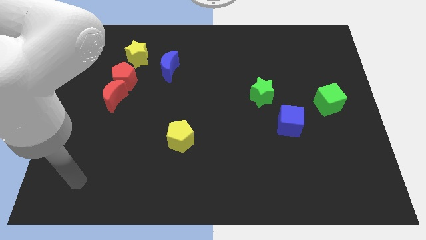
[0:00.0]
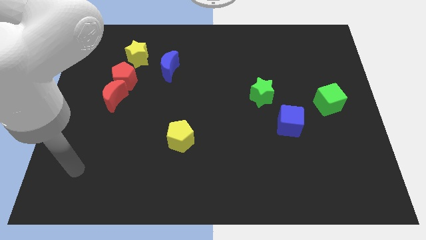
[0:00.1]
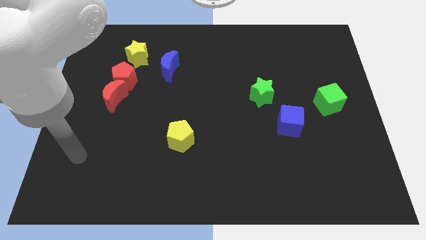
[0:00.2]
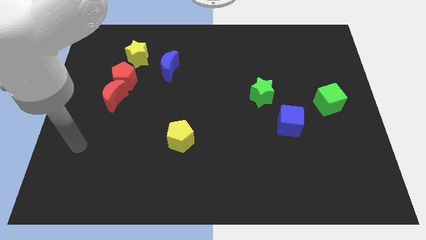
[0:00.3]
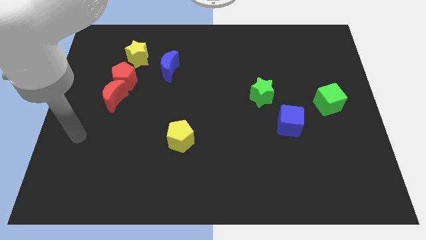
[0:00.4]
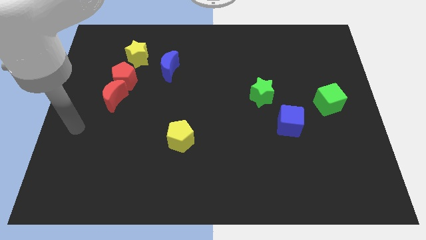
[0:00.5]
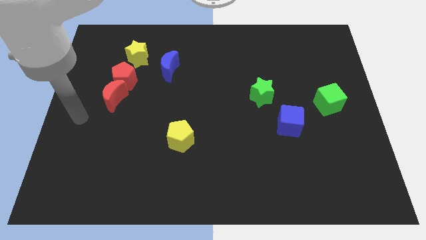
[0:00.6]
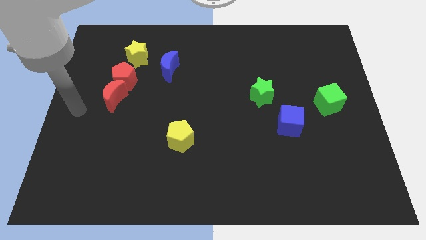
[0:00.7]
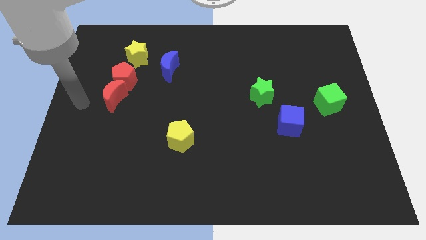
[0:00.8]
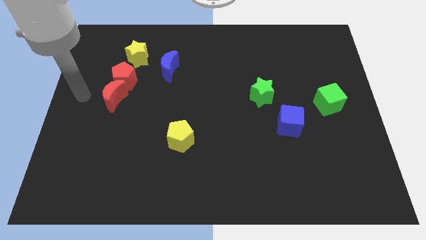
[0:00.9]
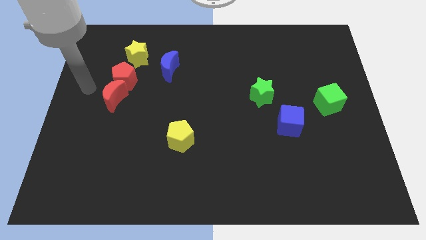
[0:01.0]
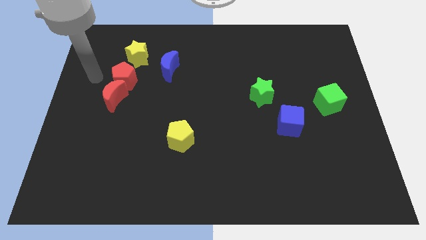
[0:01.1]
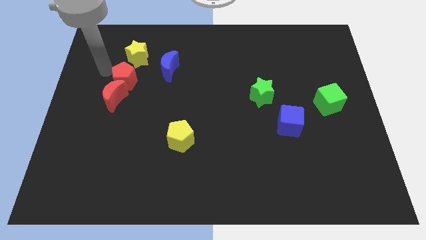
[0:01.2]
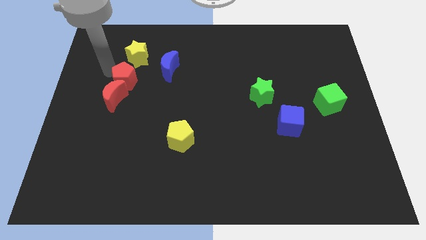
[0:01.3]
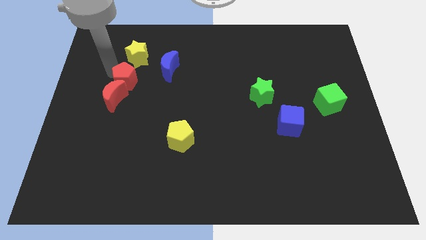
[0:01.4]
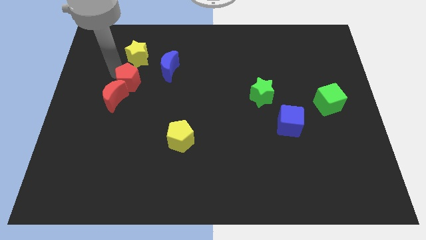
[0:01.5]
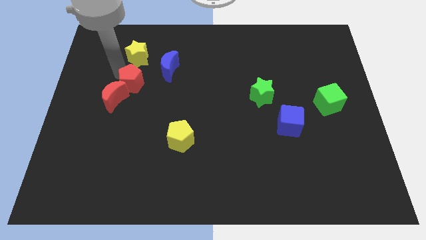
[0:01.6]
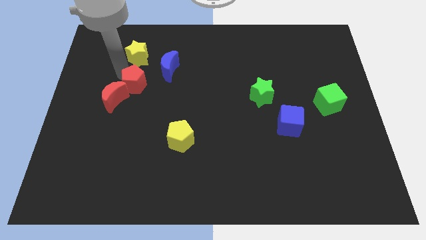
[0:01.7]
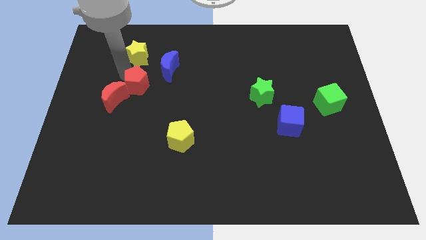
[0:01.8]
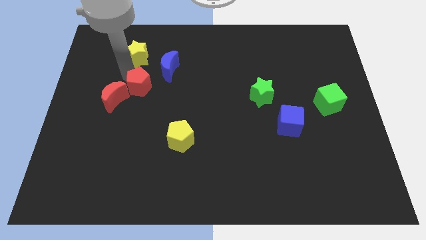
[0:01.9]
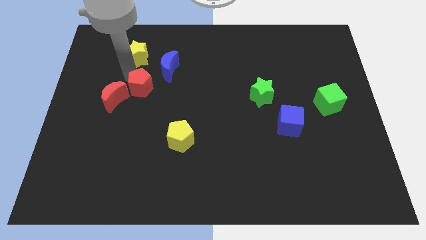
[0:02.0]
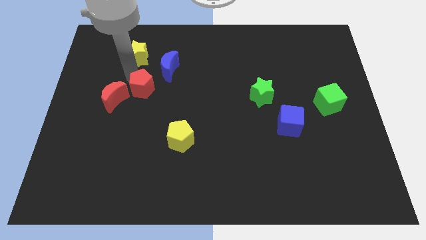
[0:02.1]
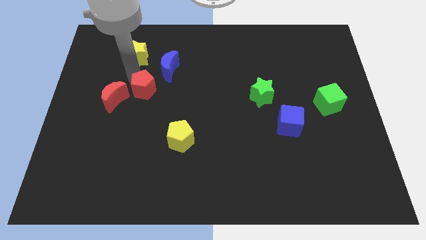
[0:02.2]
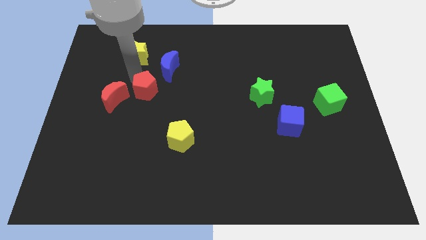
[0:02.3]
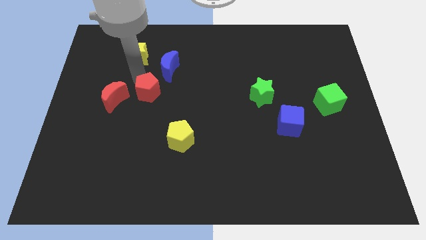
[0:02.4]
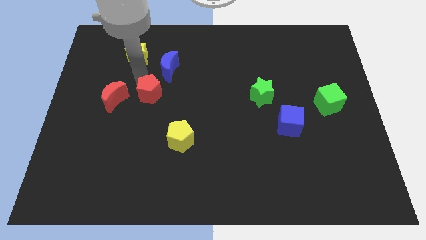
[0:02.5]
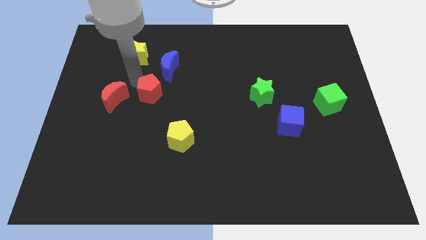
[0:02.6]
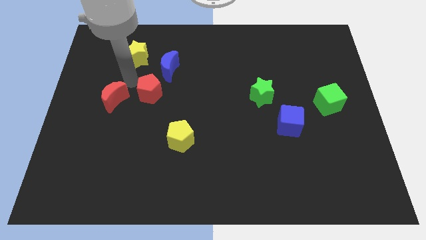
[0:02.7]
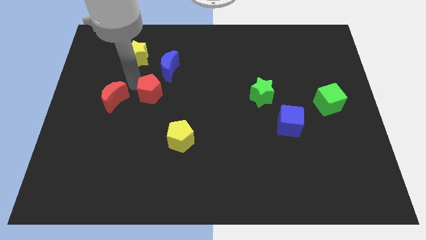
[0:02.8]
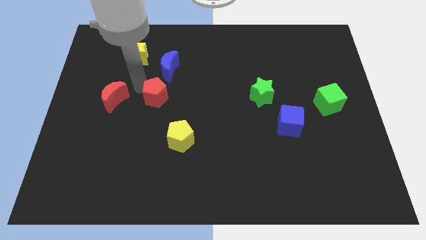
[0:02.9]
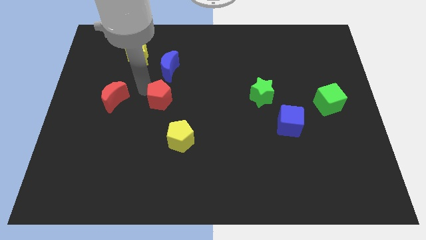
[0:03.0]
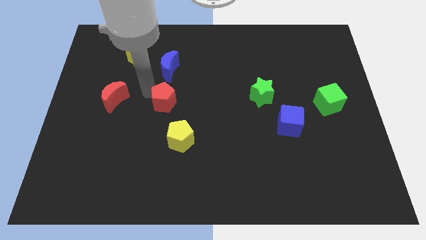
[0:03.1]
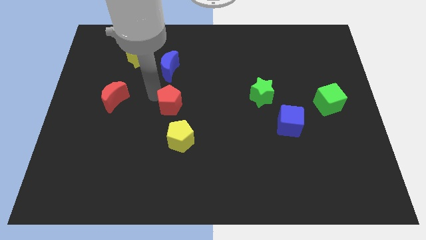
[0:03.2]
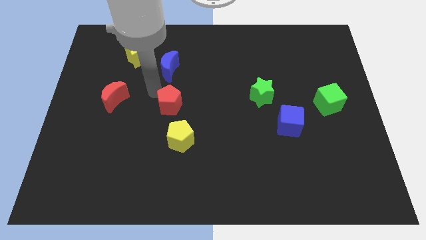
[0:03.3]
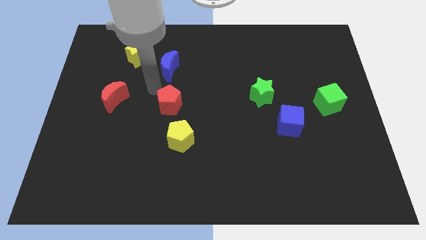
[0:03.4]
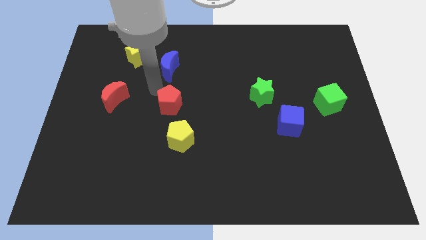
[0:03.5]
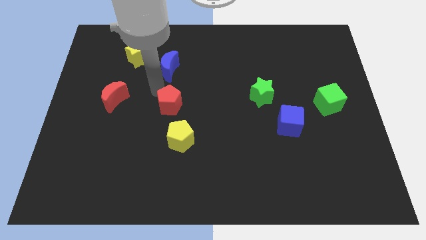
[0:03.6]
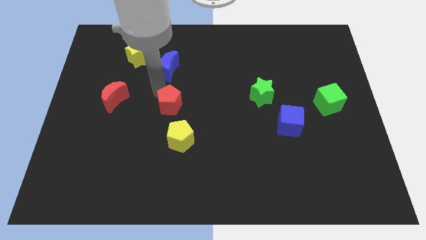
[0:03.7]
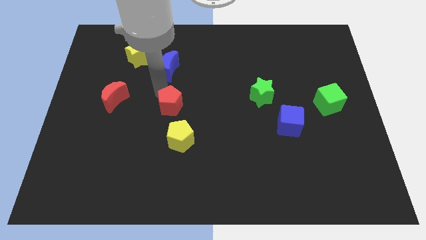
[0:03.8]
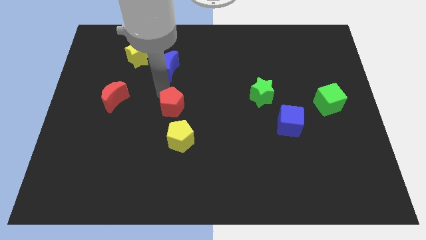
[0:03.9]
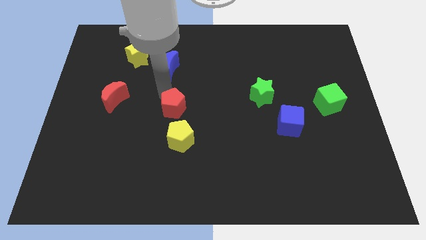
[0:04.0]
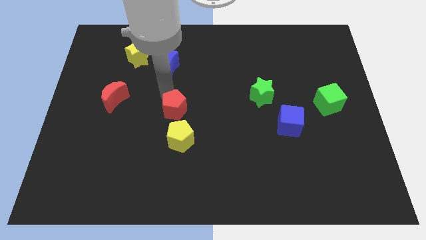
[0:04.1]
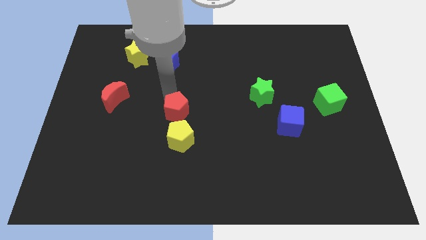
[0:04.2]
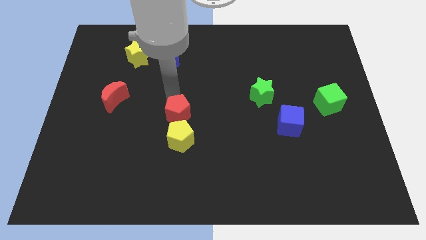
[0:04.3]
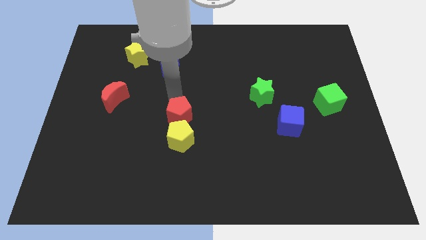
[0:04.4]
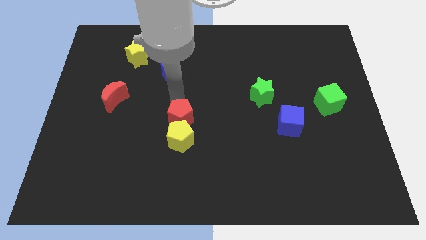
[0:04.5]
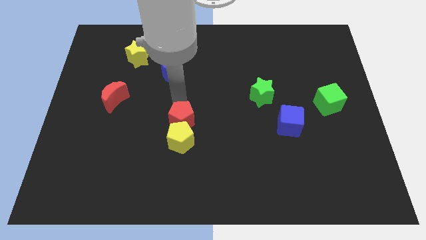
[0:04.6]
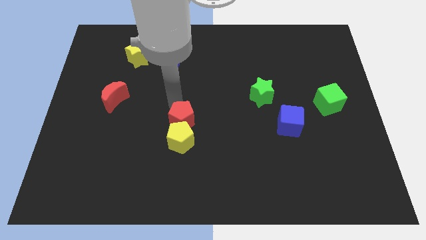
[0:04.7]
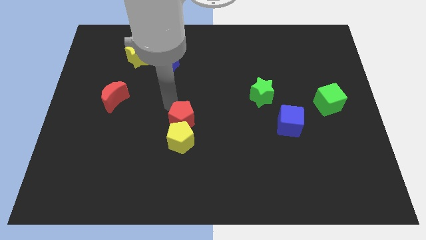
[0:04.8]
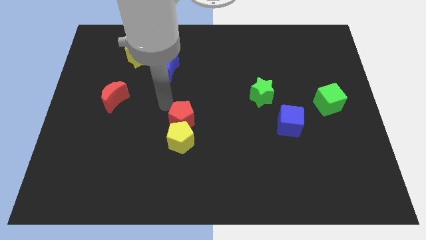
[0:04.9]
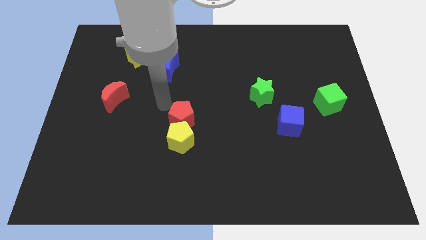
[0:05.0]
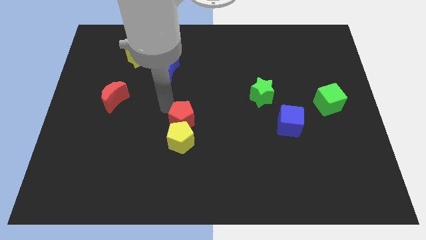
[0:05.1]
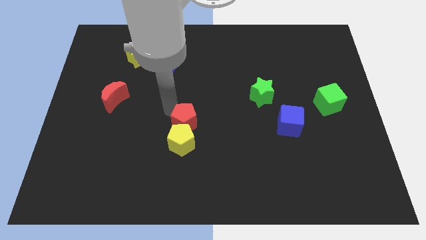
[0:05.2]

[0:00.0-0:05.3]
move the red pentagon down and then right

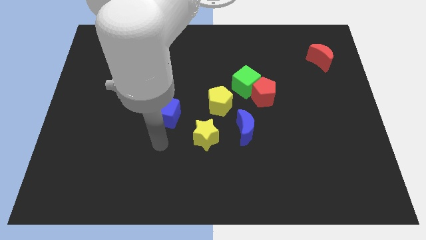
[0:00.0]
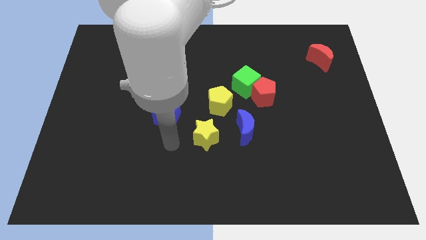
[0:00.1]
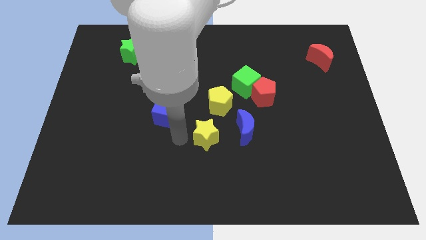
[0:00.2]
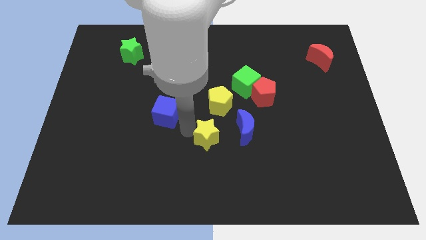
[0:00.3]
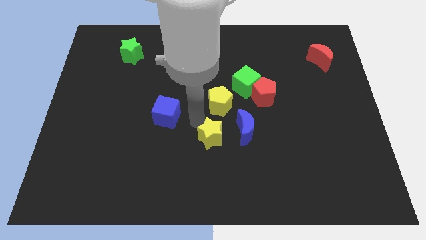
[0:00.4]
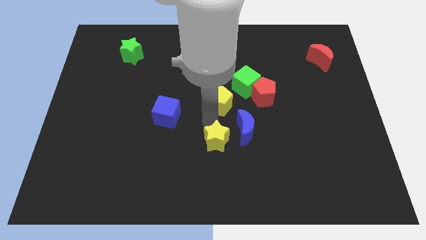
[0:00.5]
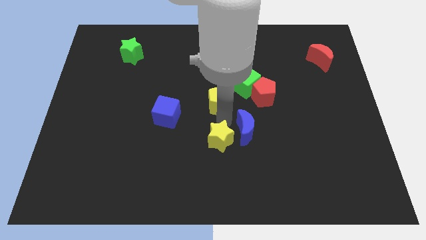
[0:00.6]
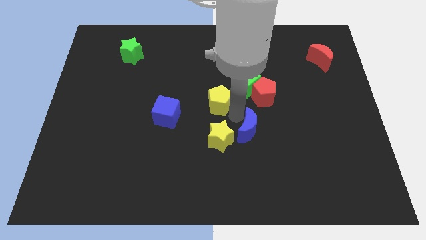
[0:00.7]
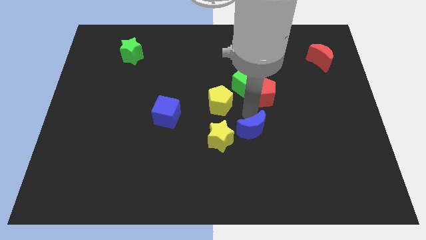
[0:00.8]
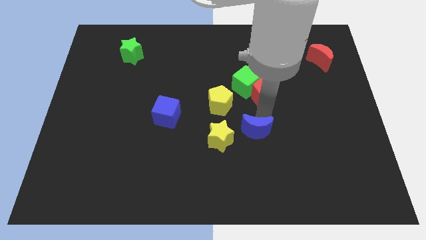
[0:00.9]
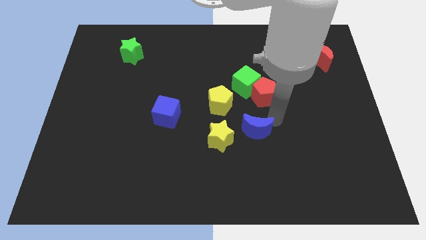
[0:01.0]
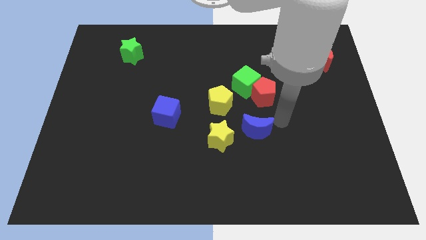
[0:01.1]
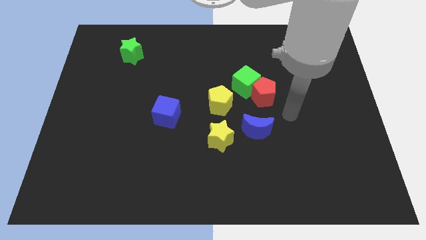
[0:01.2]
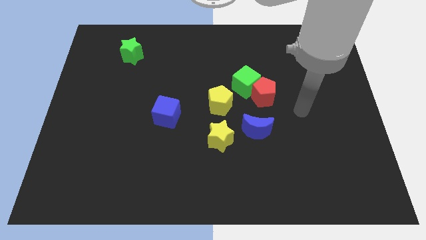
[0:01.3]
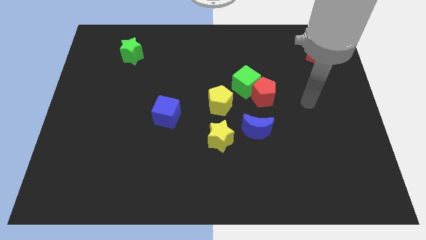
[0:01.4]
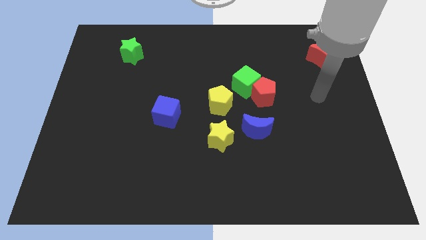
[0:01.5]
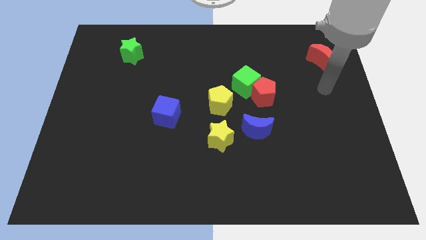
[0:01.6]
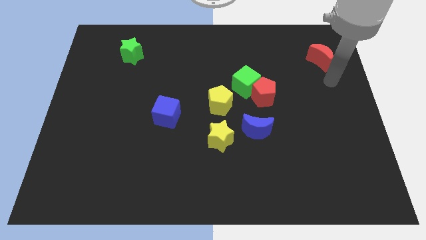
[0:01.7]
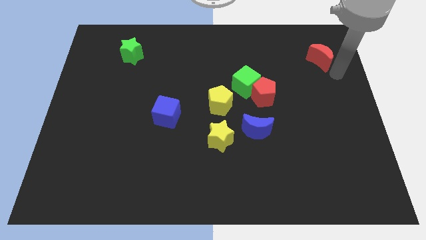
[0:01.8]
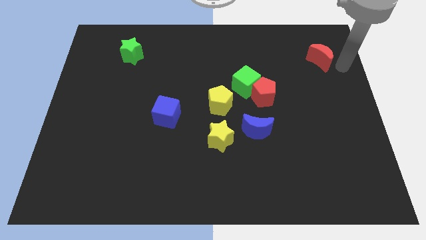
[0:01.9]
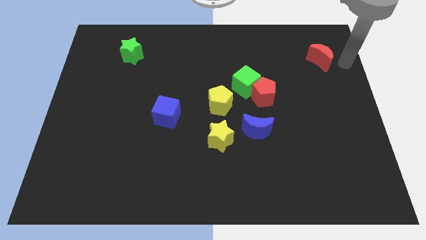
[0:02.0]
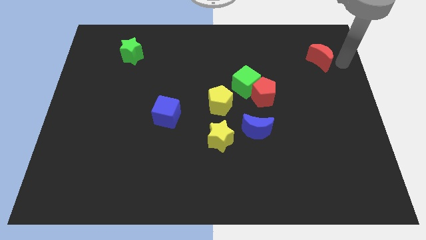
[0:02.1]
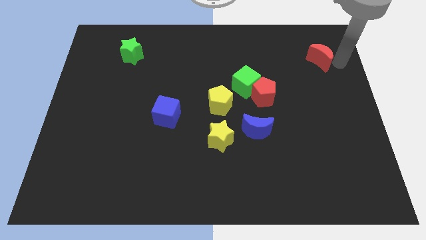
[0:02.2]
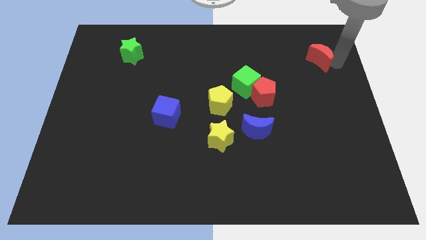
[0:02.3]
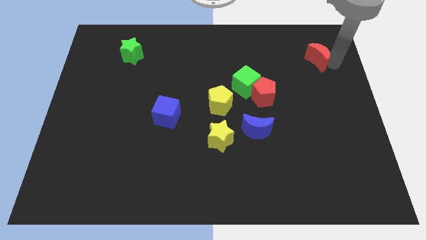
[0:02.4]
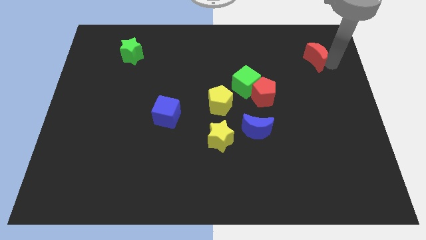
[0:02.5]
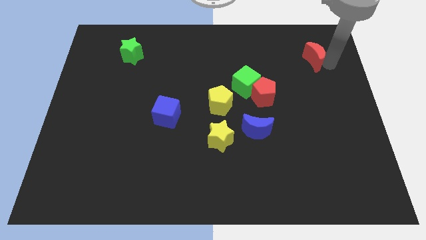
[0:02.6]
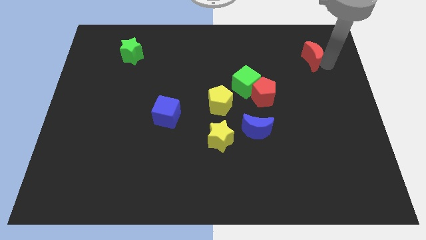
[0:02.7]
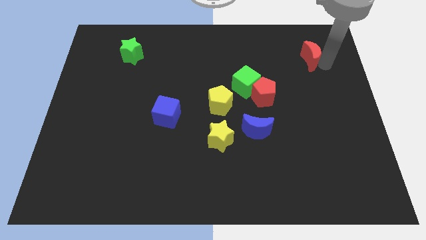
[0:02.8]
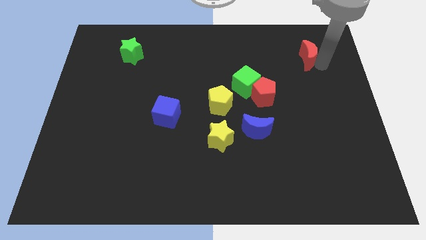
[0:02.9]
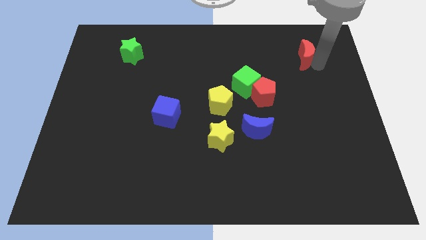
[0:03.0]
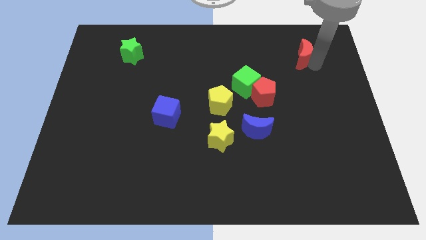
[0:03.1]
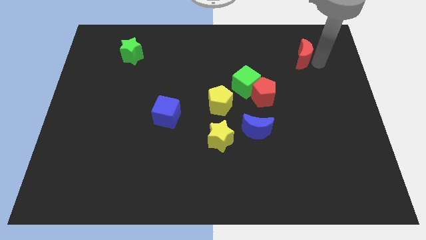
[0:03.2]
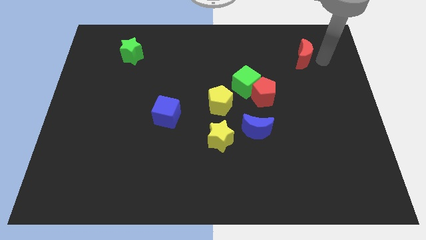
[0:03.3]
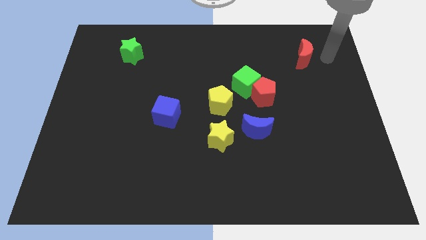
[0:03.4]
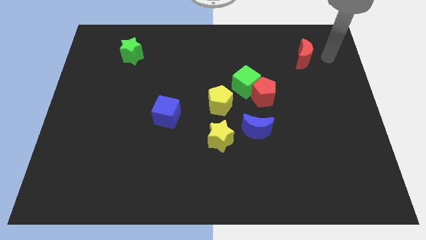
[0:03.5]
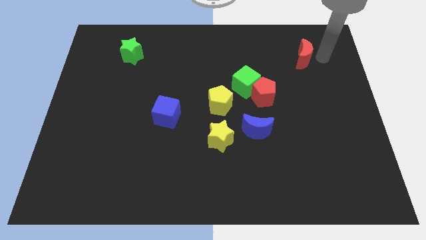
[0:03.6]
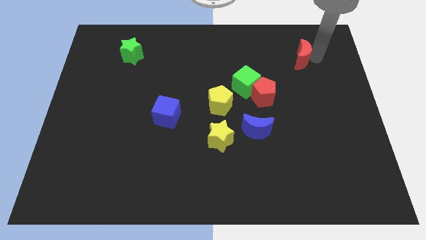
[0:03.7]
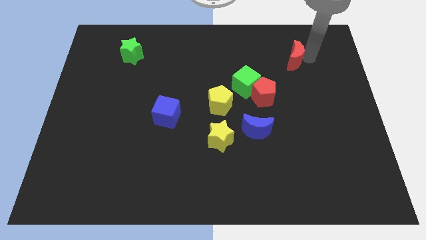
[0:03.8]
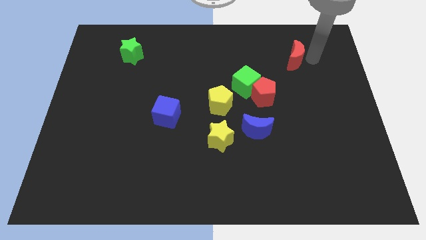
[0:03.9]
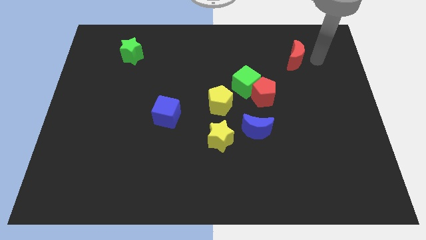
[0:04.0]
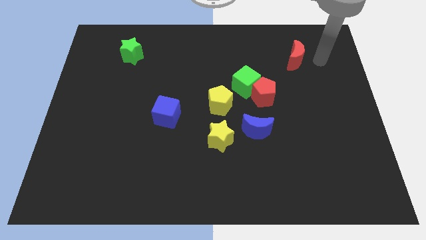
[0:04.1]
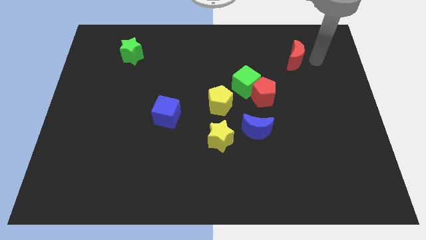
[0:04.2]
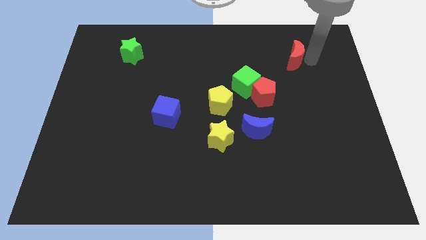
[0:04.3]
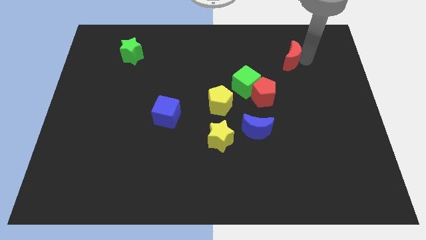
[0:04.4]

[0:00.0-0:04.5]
push the red moon to the left a little bit
